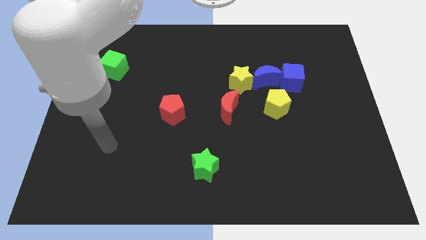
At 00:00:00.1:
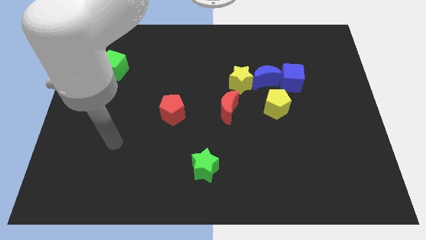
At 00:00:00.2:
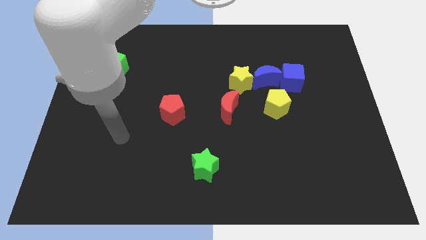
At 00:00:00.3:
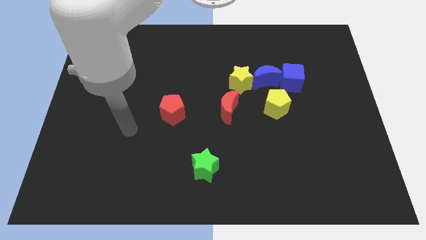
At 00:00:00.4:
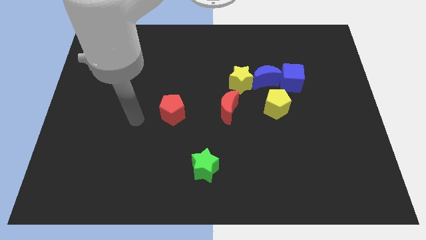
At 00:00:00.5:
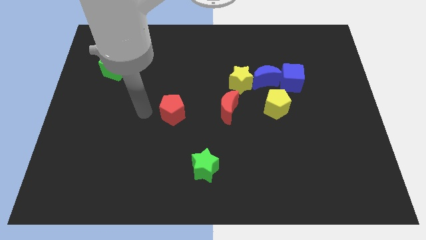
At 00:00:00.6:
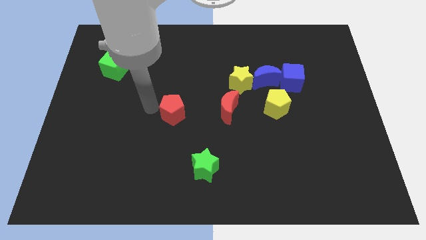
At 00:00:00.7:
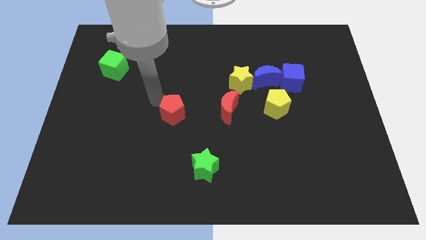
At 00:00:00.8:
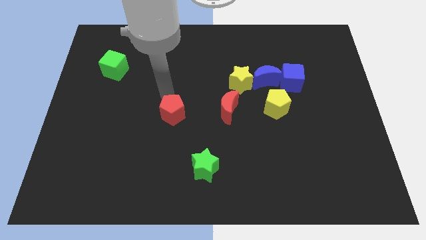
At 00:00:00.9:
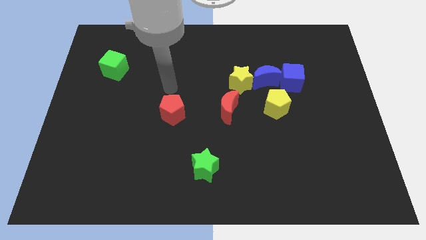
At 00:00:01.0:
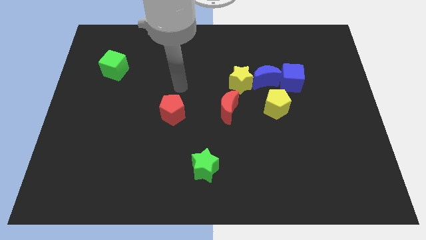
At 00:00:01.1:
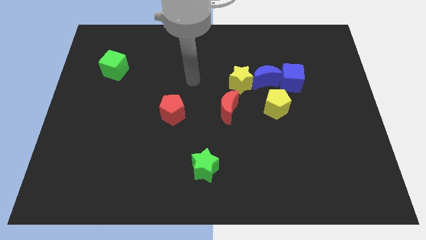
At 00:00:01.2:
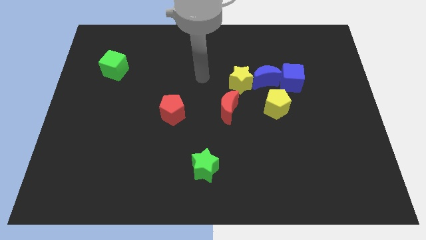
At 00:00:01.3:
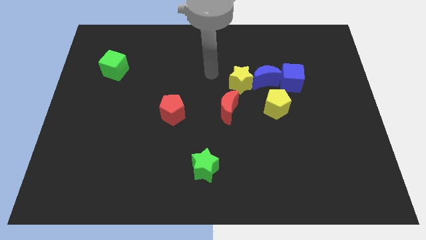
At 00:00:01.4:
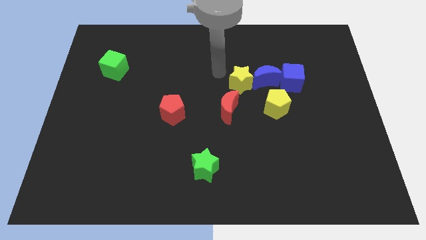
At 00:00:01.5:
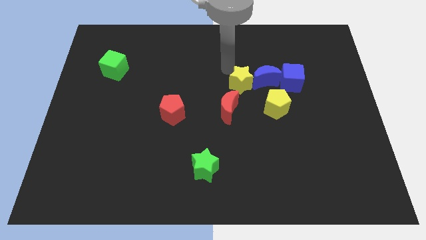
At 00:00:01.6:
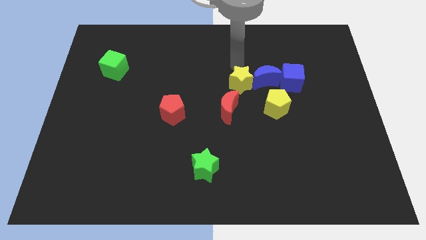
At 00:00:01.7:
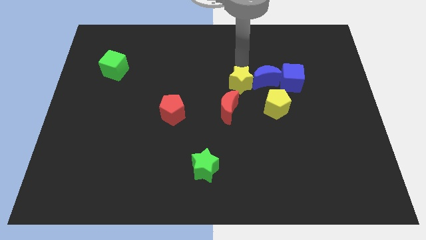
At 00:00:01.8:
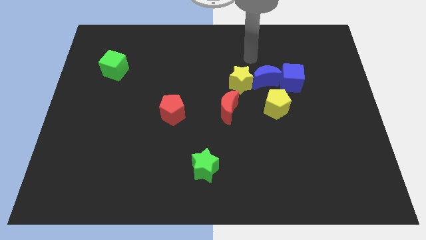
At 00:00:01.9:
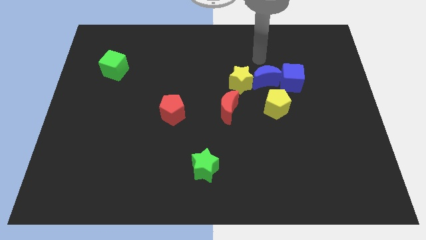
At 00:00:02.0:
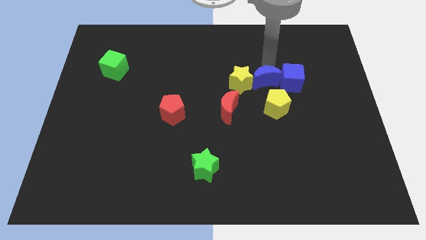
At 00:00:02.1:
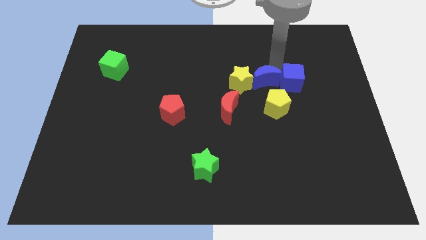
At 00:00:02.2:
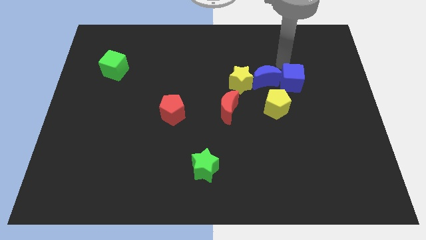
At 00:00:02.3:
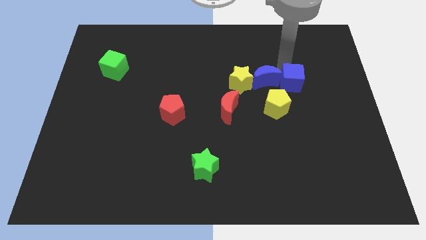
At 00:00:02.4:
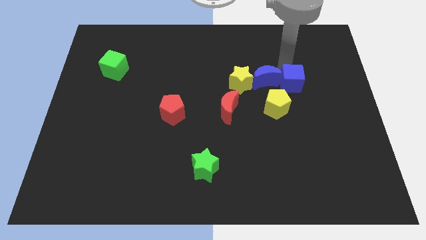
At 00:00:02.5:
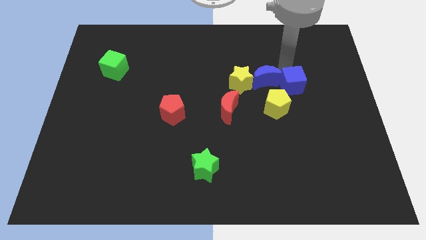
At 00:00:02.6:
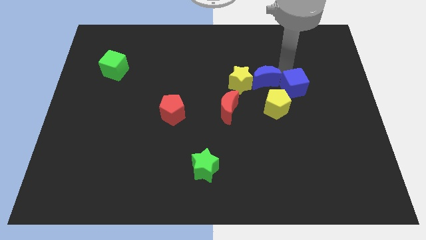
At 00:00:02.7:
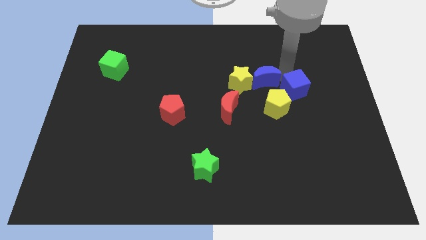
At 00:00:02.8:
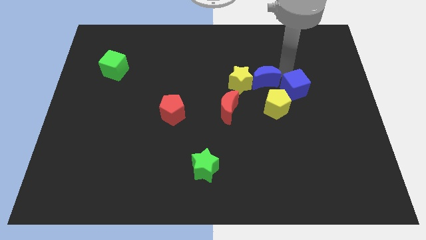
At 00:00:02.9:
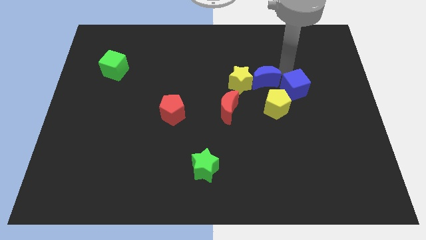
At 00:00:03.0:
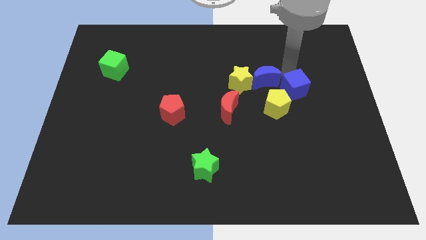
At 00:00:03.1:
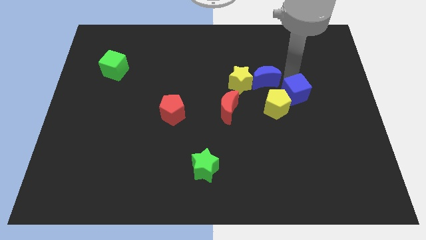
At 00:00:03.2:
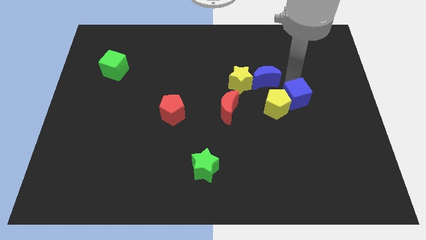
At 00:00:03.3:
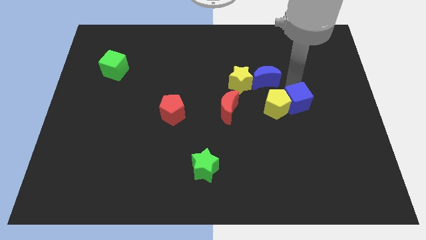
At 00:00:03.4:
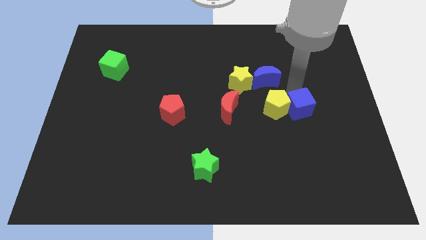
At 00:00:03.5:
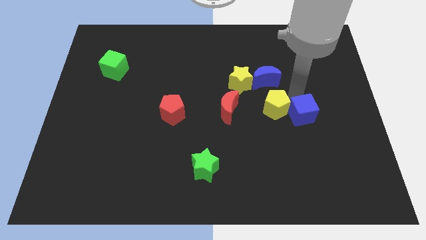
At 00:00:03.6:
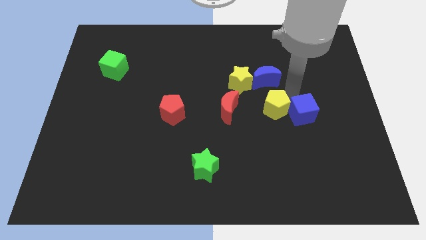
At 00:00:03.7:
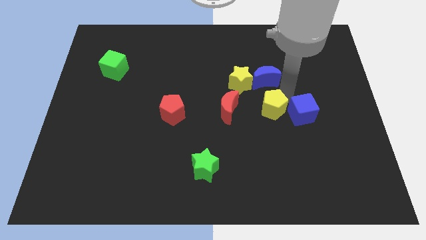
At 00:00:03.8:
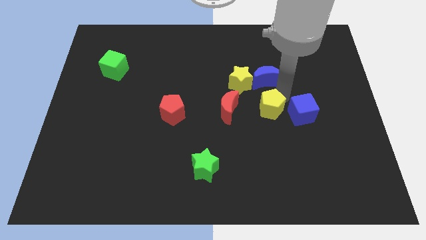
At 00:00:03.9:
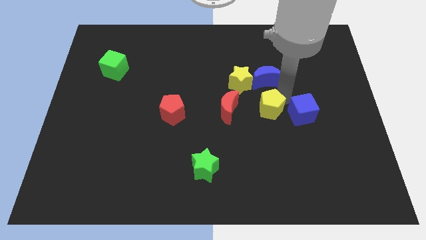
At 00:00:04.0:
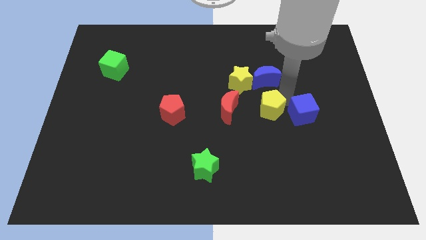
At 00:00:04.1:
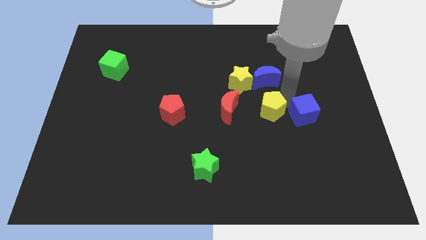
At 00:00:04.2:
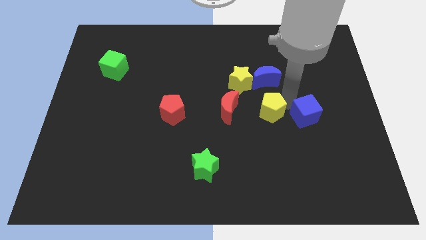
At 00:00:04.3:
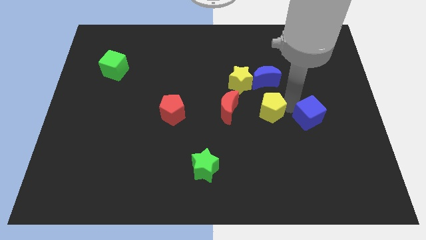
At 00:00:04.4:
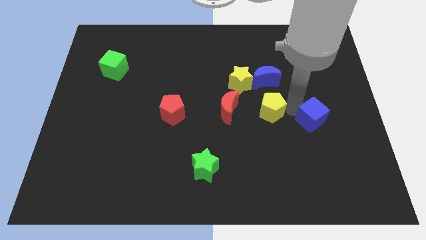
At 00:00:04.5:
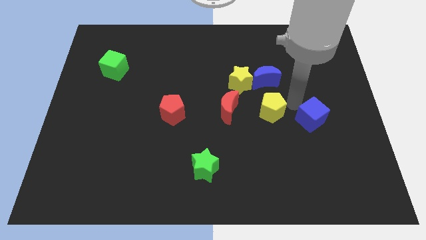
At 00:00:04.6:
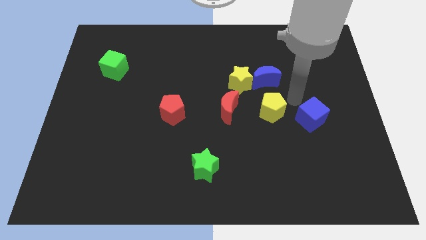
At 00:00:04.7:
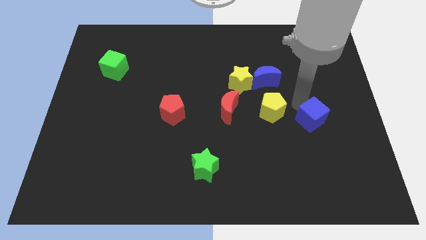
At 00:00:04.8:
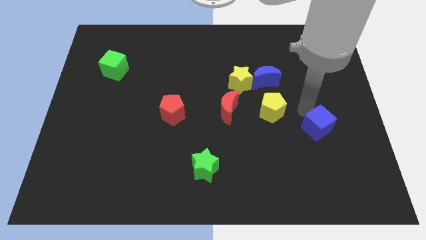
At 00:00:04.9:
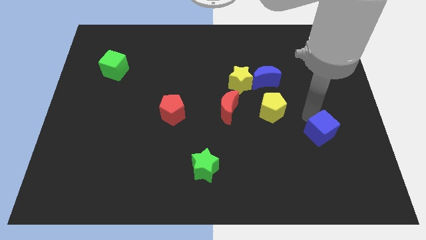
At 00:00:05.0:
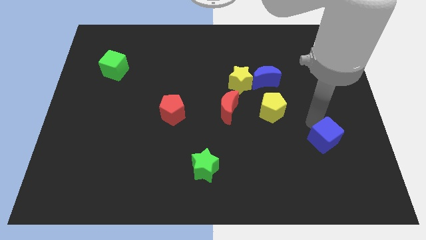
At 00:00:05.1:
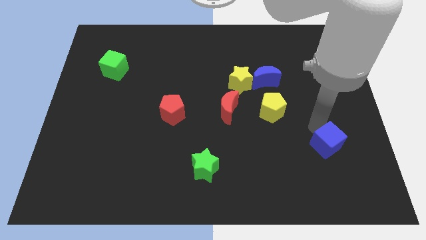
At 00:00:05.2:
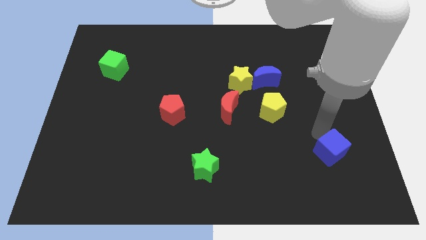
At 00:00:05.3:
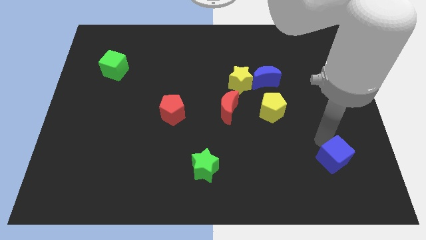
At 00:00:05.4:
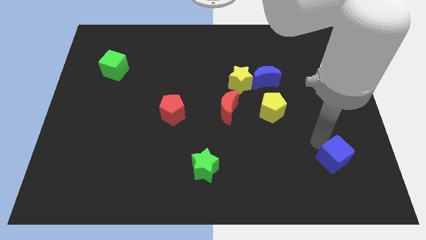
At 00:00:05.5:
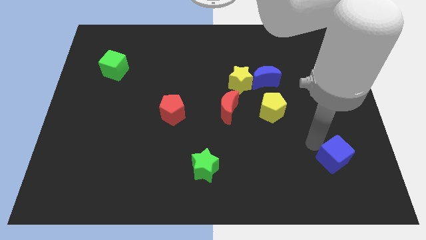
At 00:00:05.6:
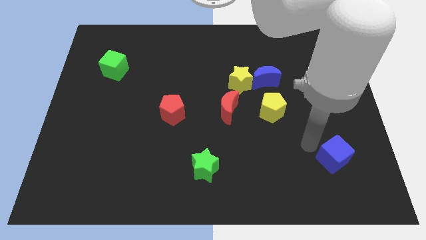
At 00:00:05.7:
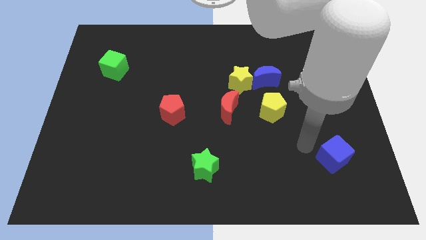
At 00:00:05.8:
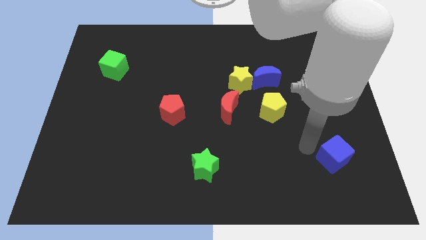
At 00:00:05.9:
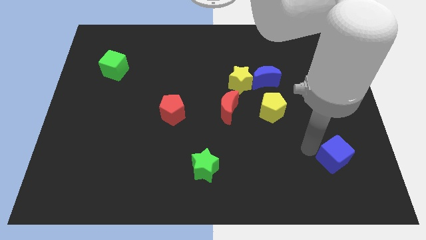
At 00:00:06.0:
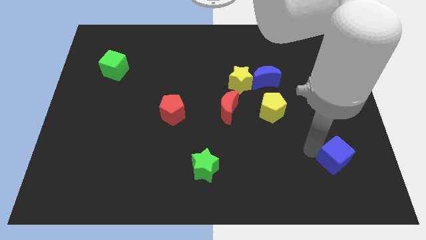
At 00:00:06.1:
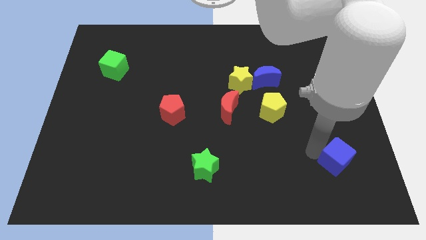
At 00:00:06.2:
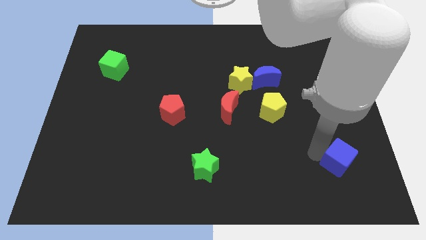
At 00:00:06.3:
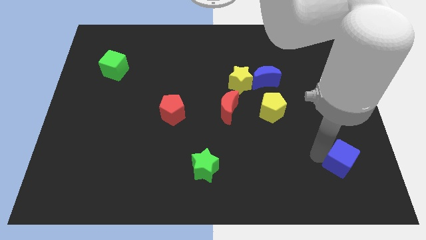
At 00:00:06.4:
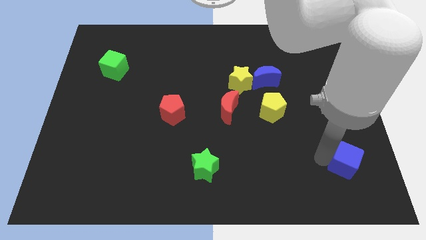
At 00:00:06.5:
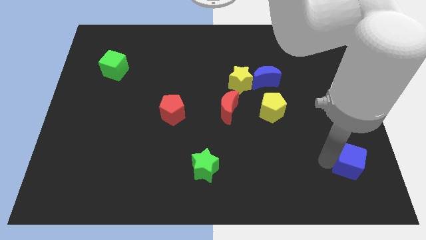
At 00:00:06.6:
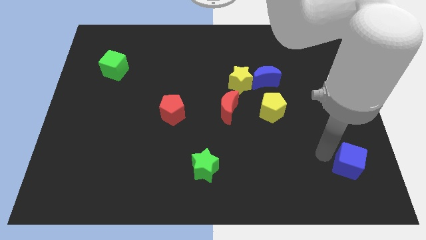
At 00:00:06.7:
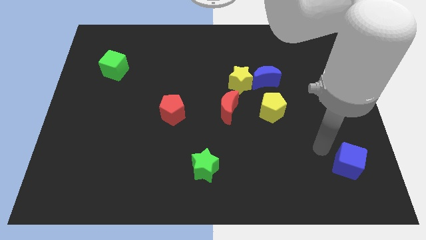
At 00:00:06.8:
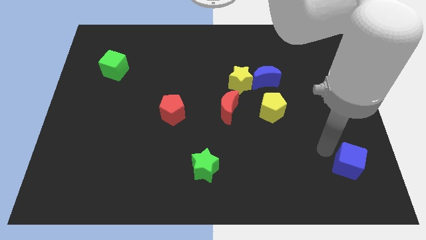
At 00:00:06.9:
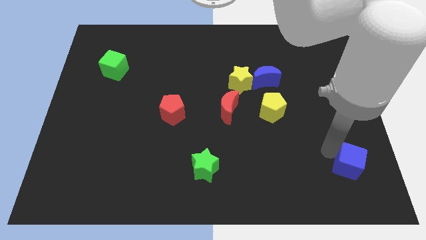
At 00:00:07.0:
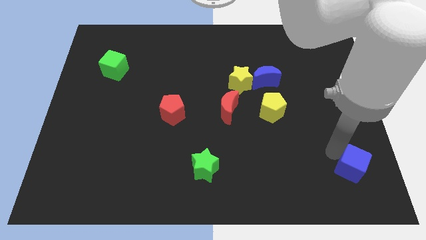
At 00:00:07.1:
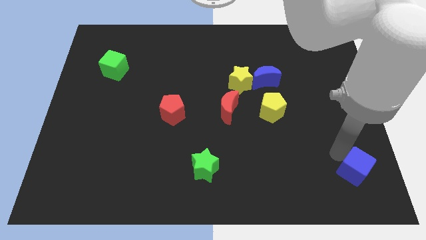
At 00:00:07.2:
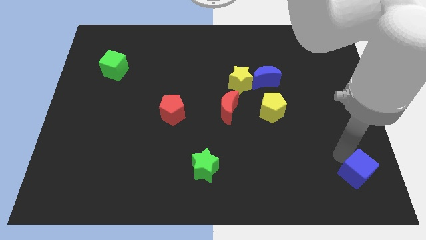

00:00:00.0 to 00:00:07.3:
put the blue cube to the bottom right corner
